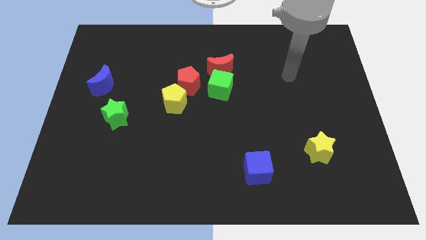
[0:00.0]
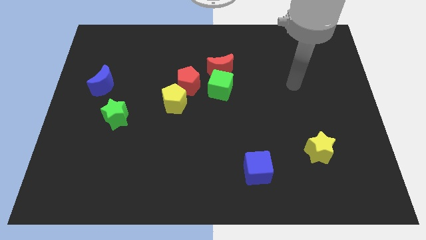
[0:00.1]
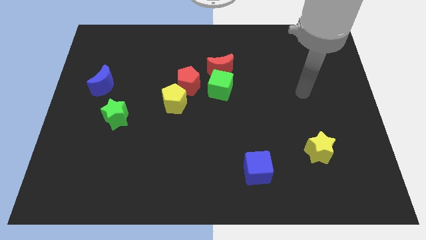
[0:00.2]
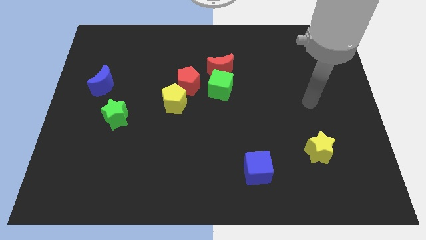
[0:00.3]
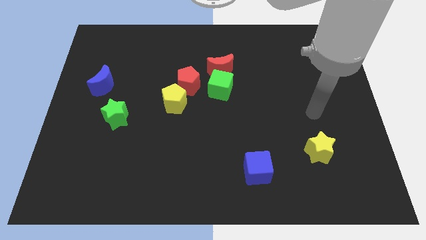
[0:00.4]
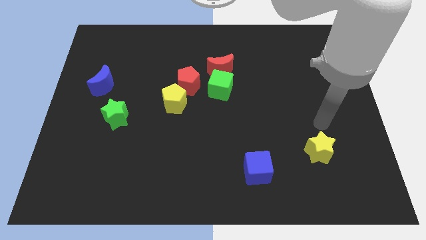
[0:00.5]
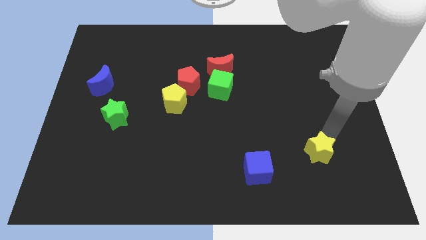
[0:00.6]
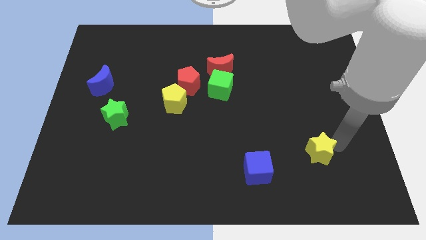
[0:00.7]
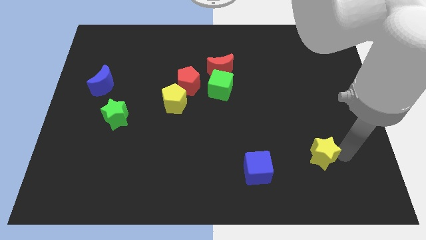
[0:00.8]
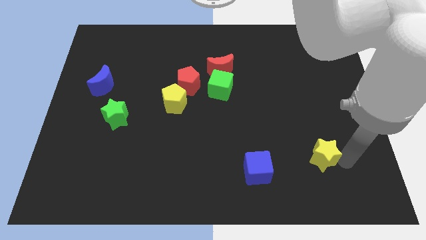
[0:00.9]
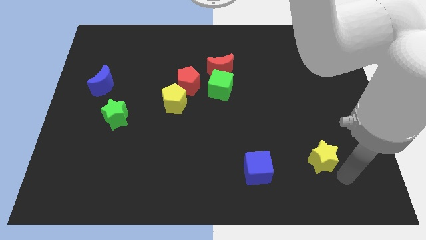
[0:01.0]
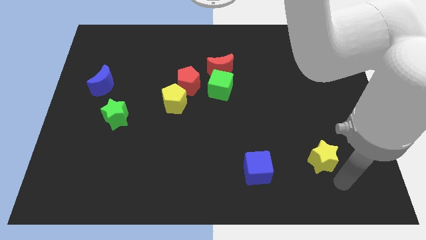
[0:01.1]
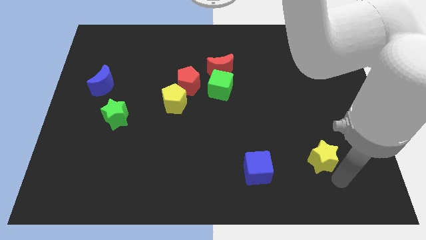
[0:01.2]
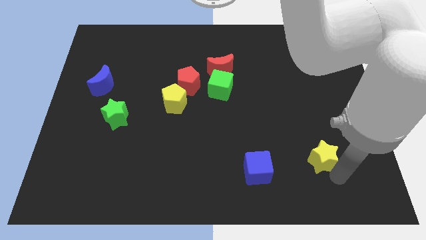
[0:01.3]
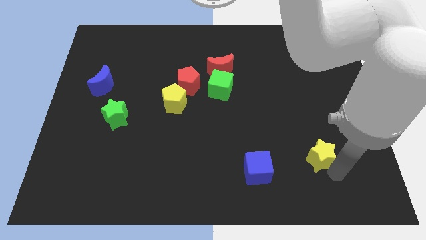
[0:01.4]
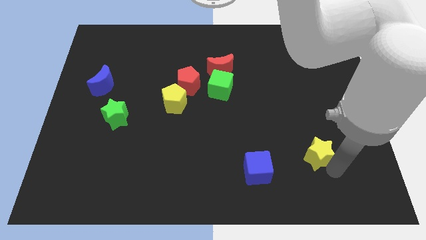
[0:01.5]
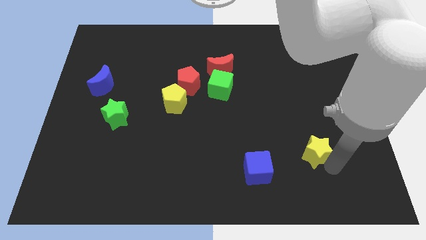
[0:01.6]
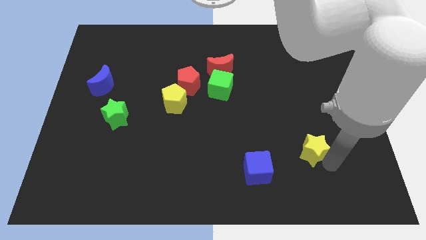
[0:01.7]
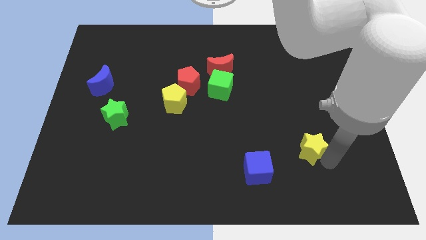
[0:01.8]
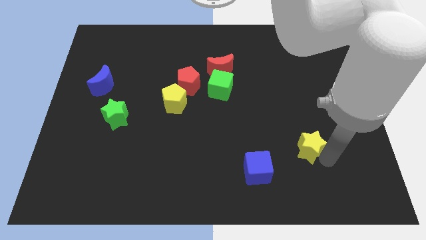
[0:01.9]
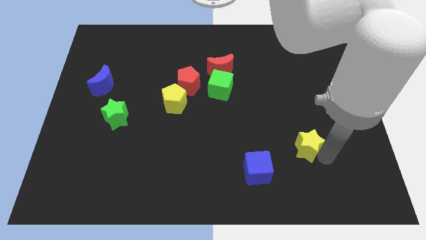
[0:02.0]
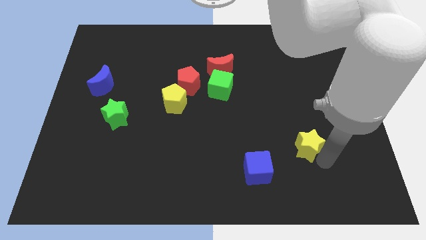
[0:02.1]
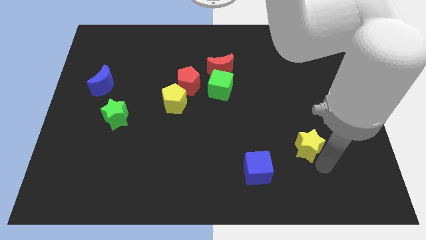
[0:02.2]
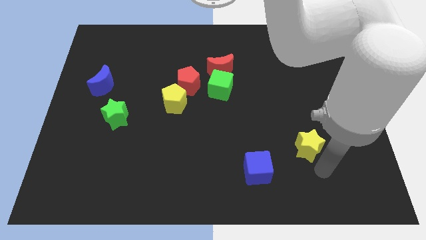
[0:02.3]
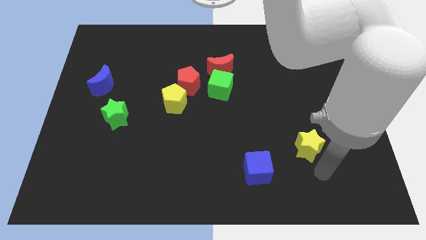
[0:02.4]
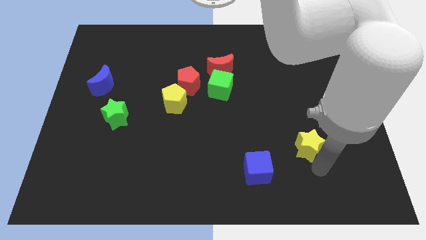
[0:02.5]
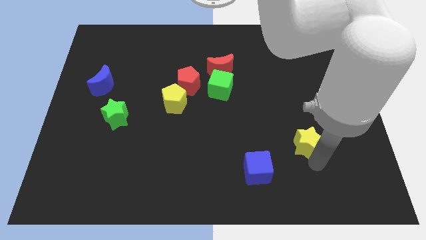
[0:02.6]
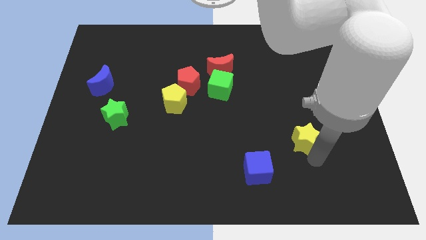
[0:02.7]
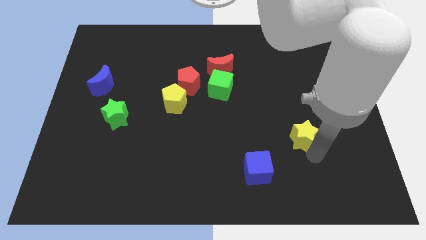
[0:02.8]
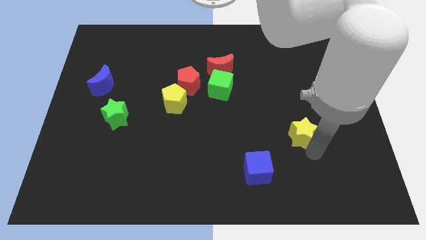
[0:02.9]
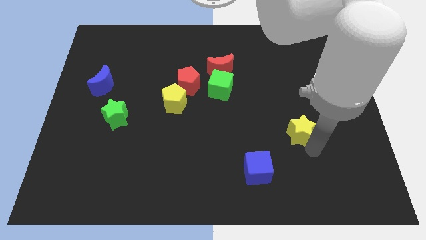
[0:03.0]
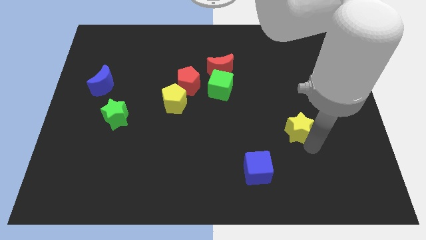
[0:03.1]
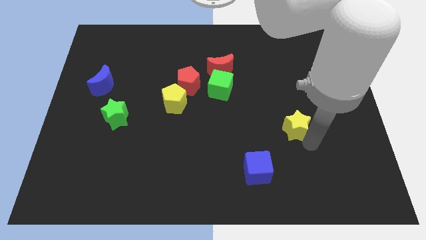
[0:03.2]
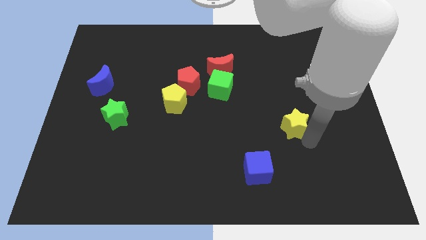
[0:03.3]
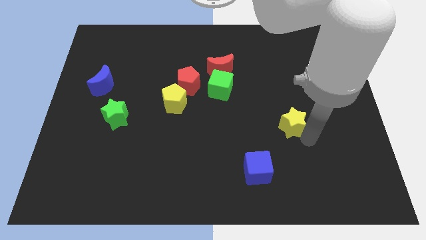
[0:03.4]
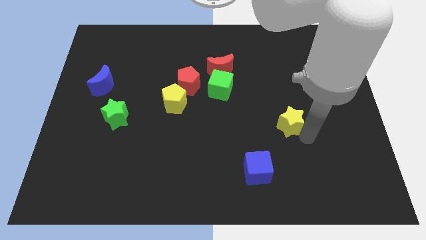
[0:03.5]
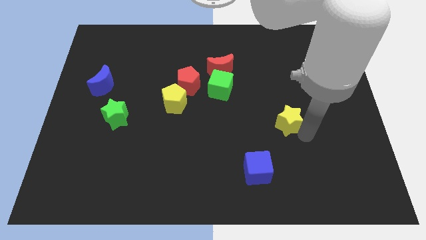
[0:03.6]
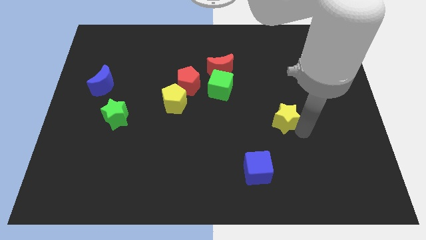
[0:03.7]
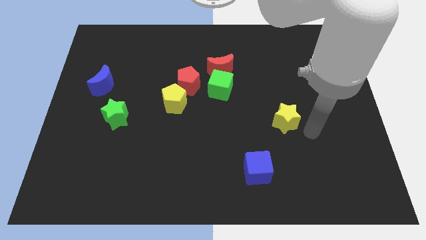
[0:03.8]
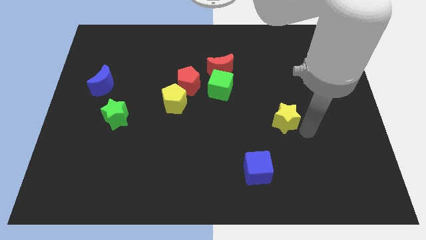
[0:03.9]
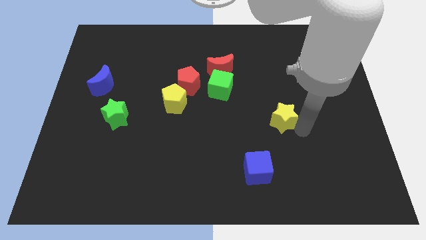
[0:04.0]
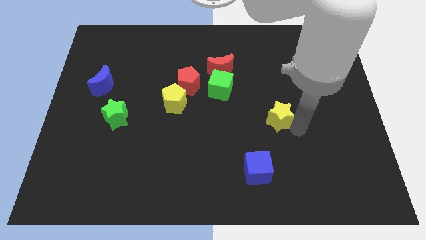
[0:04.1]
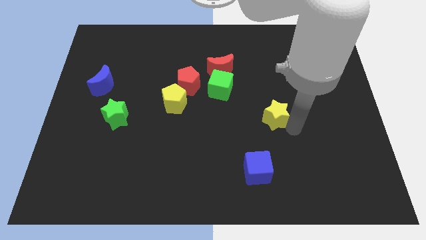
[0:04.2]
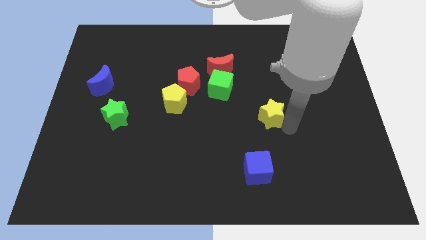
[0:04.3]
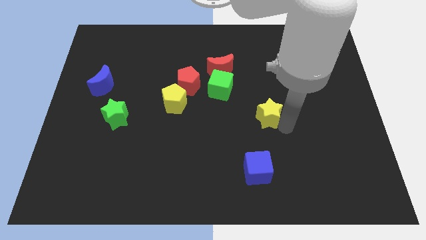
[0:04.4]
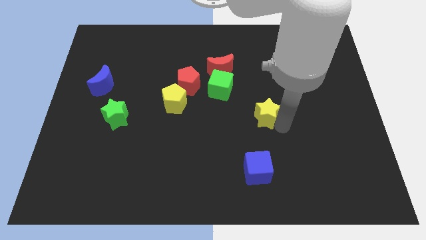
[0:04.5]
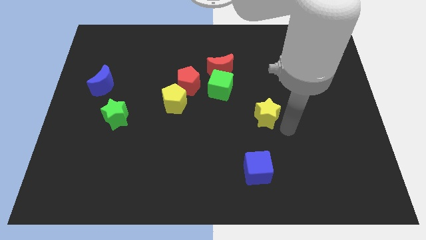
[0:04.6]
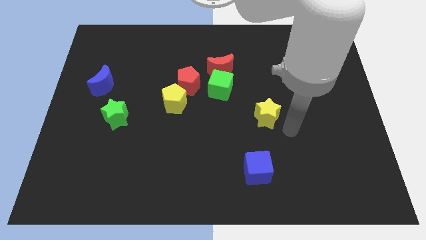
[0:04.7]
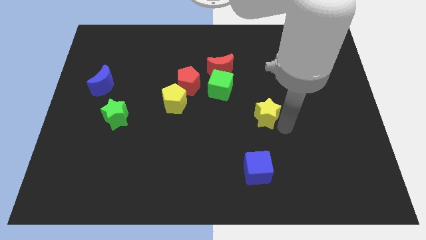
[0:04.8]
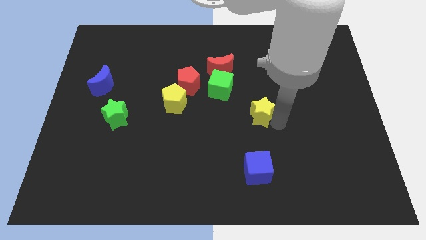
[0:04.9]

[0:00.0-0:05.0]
slide the yellow star to the bottom right side of the green cube

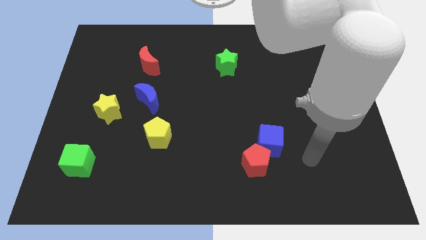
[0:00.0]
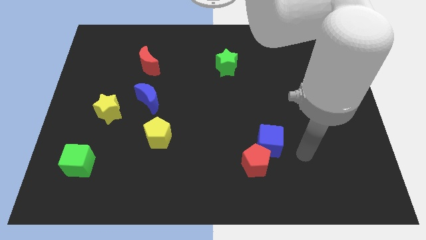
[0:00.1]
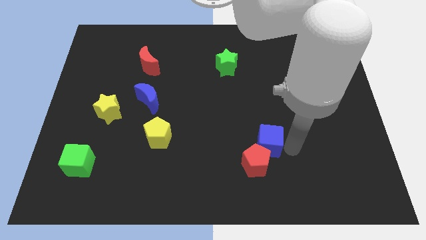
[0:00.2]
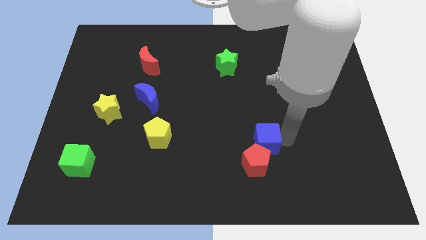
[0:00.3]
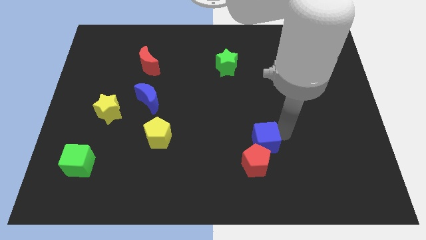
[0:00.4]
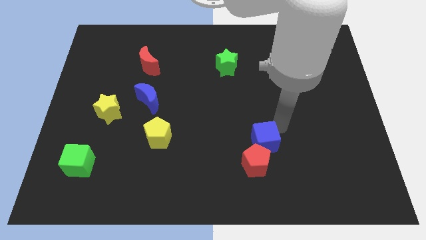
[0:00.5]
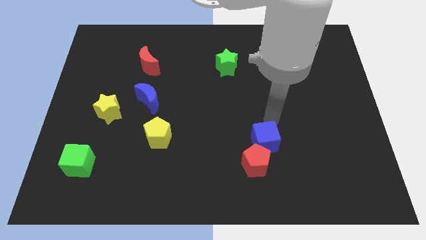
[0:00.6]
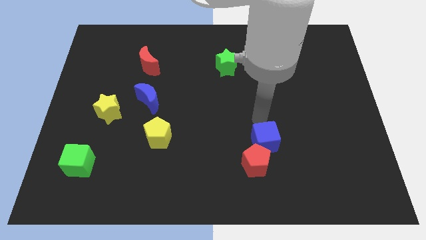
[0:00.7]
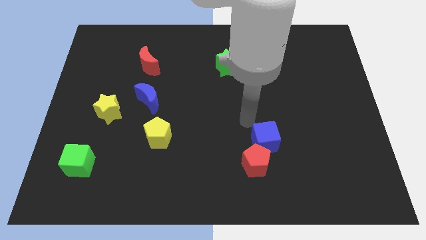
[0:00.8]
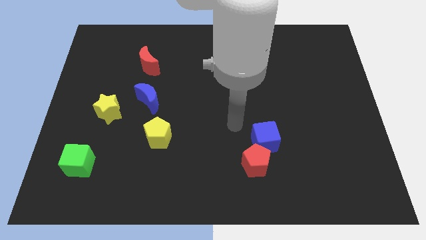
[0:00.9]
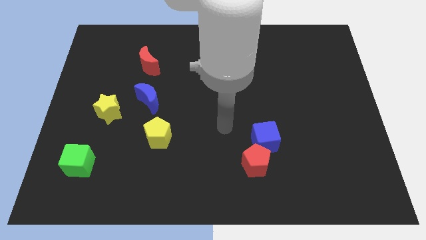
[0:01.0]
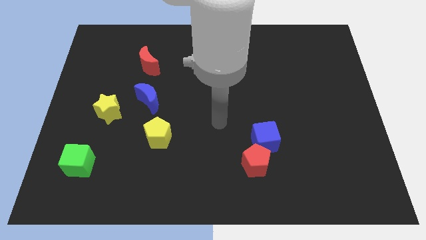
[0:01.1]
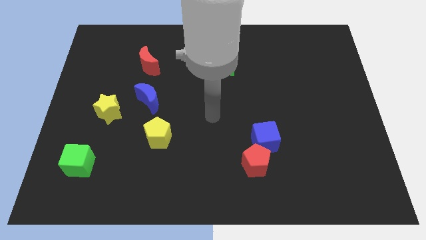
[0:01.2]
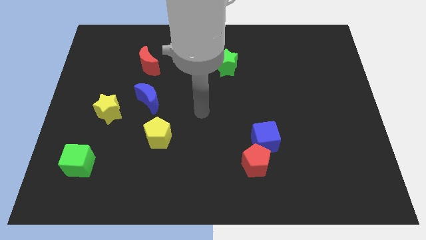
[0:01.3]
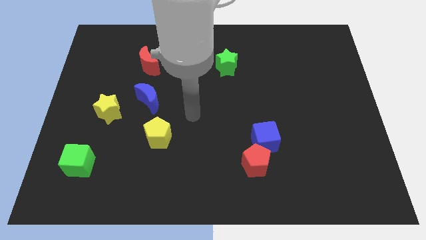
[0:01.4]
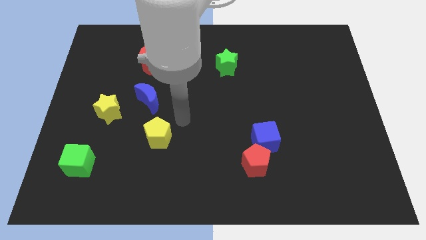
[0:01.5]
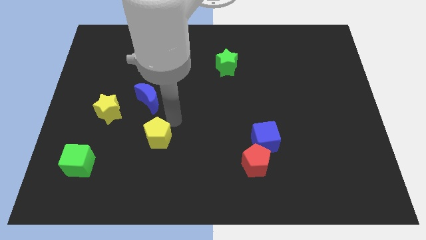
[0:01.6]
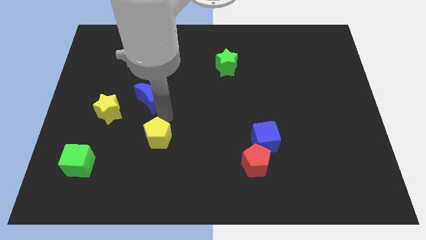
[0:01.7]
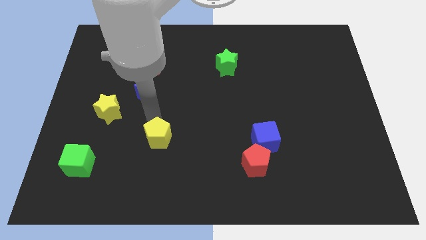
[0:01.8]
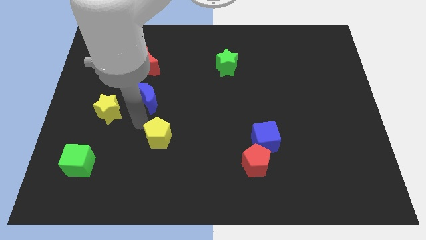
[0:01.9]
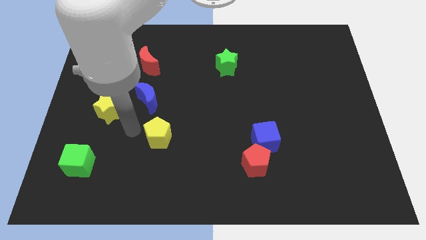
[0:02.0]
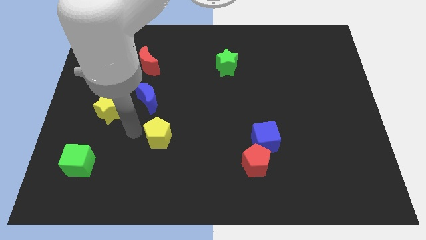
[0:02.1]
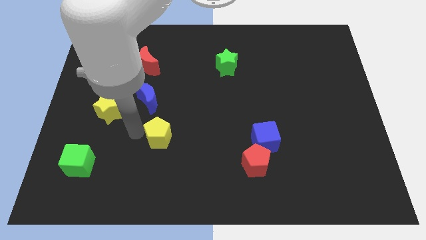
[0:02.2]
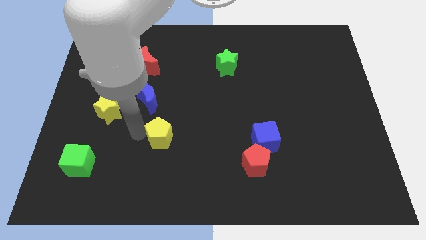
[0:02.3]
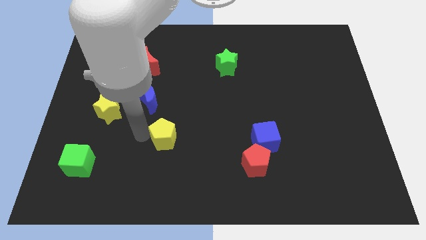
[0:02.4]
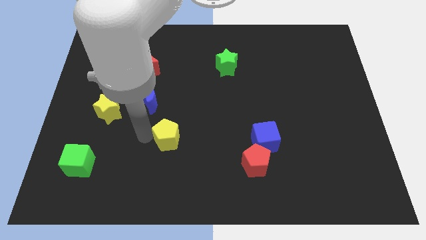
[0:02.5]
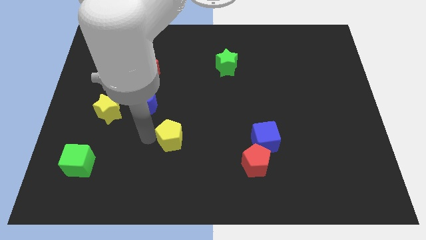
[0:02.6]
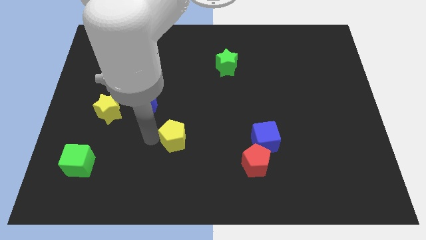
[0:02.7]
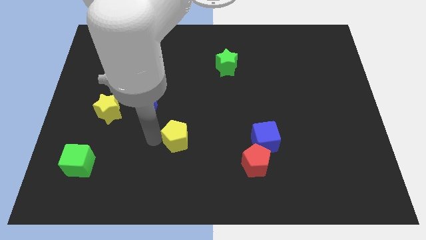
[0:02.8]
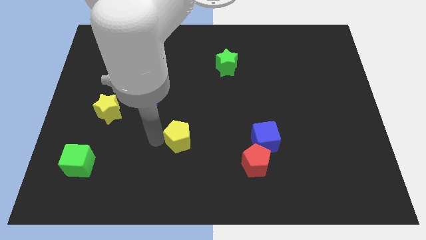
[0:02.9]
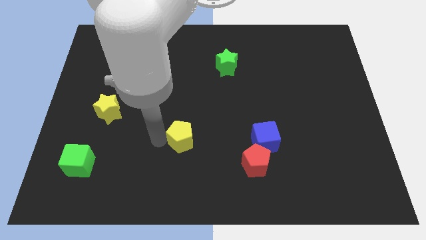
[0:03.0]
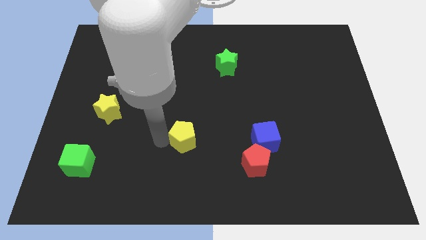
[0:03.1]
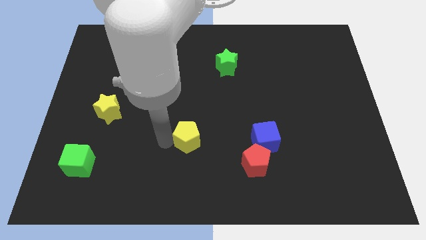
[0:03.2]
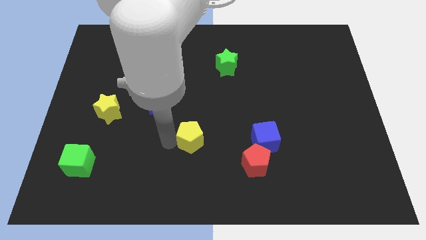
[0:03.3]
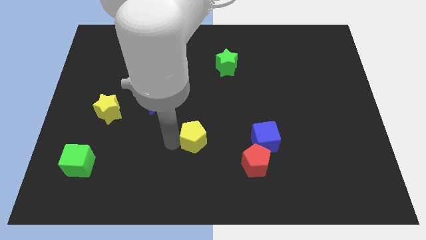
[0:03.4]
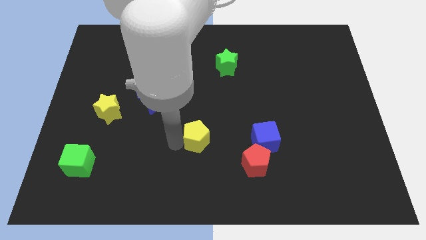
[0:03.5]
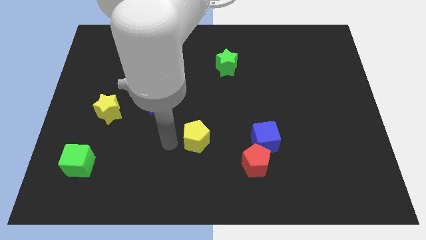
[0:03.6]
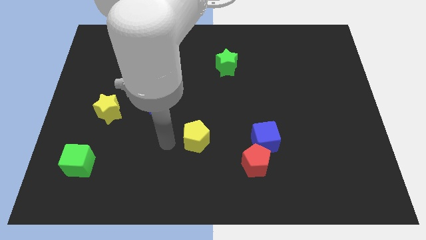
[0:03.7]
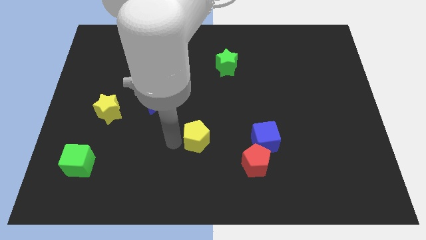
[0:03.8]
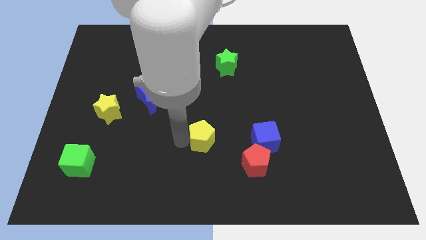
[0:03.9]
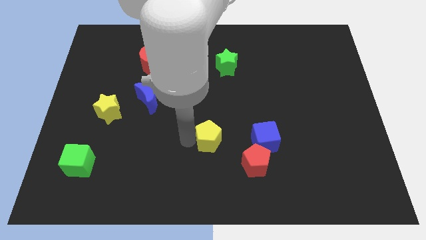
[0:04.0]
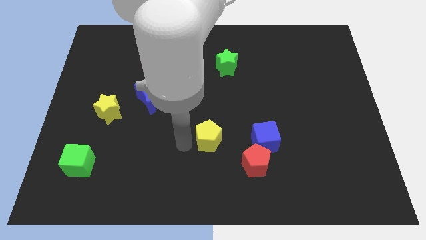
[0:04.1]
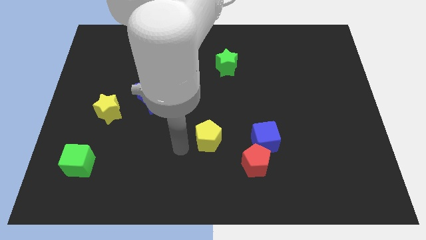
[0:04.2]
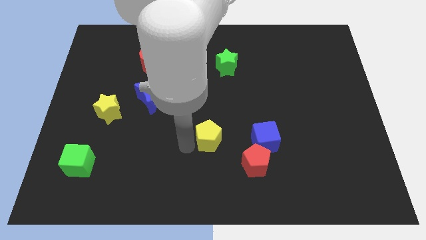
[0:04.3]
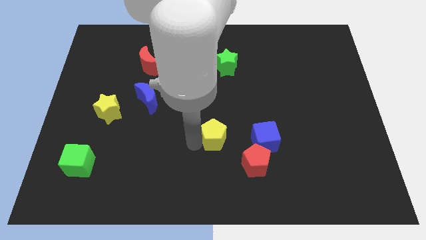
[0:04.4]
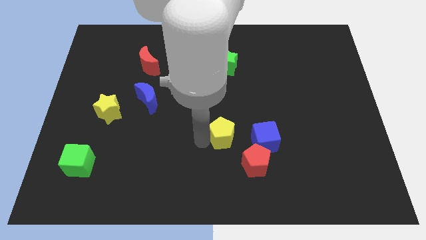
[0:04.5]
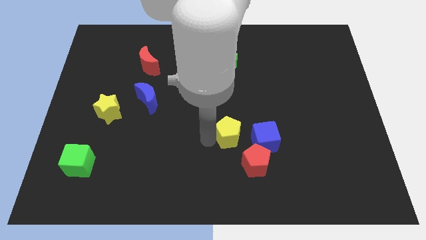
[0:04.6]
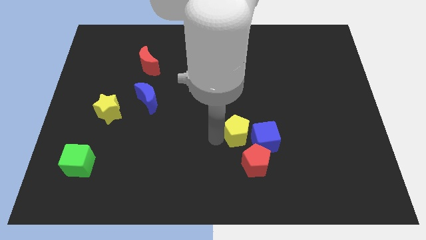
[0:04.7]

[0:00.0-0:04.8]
put the yellow pentagon above the red pentagon
